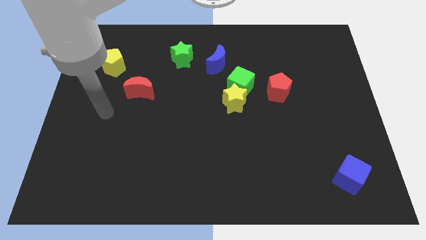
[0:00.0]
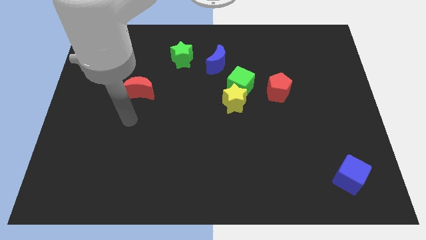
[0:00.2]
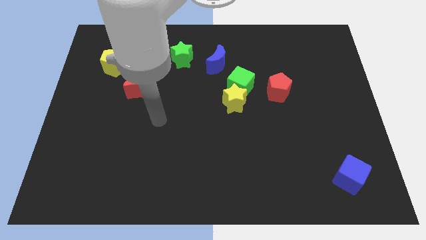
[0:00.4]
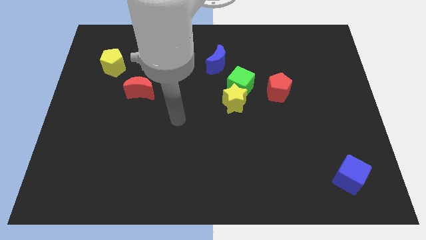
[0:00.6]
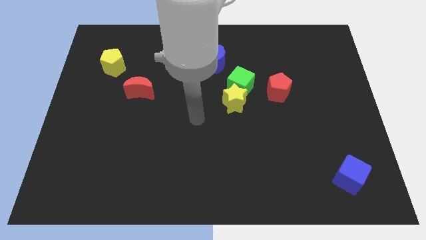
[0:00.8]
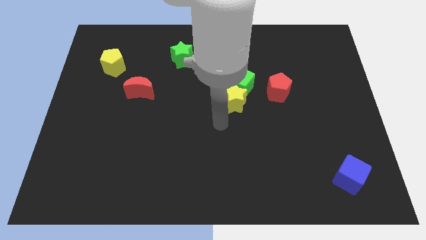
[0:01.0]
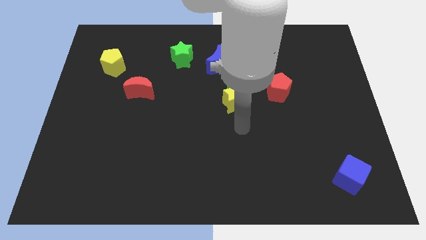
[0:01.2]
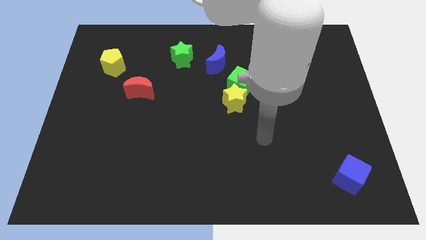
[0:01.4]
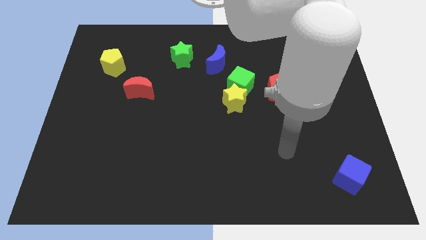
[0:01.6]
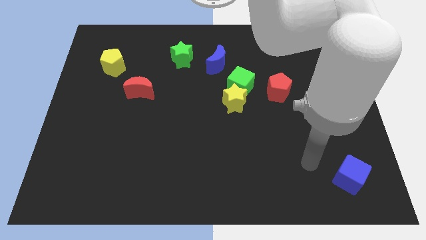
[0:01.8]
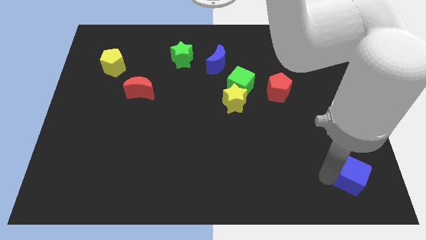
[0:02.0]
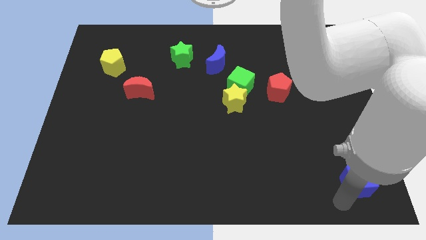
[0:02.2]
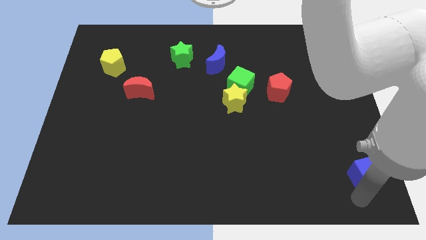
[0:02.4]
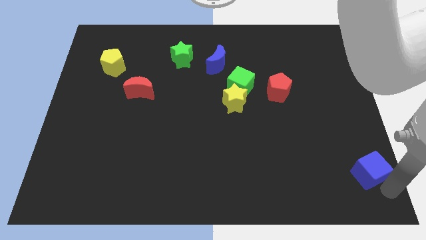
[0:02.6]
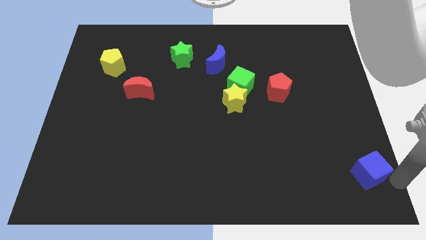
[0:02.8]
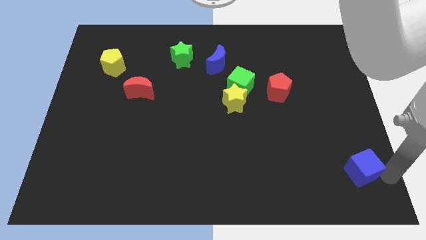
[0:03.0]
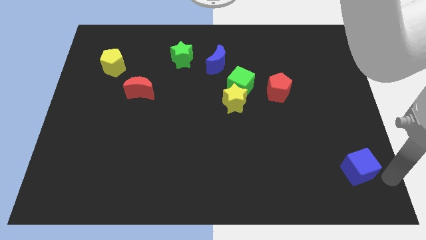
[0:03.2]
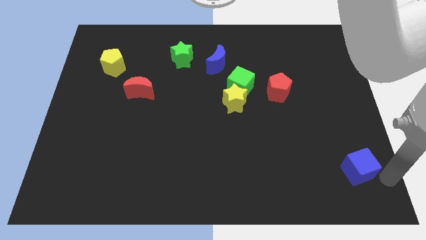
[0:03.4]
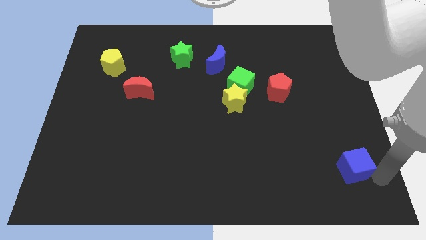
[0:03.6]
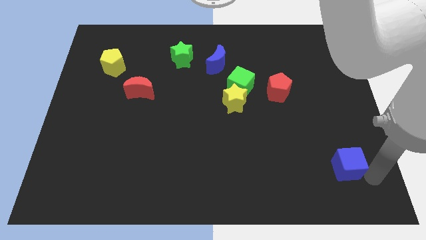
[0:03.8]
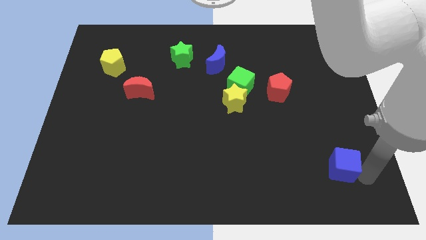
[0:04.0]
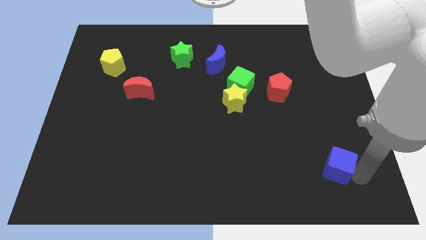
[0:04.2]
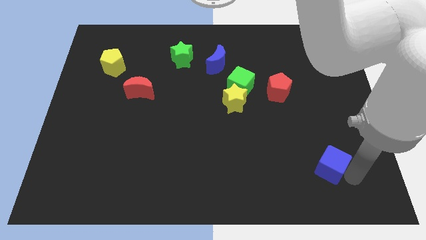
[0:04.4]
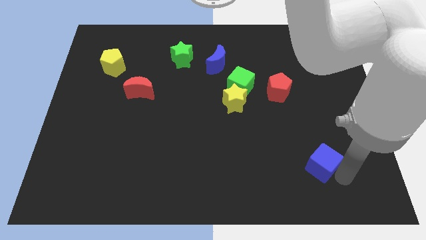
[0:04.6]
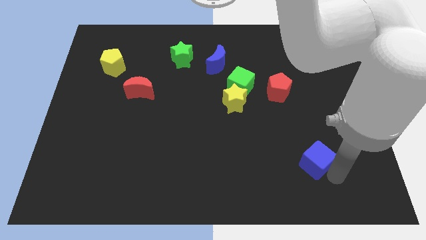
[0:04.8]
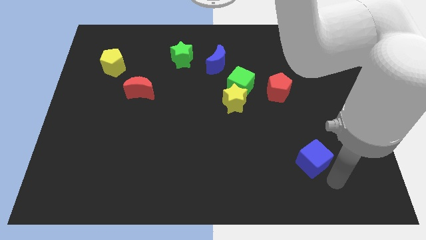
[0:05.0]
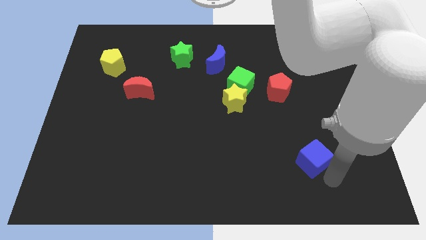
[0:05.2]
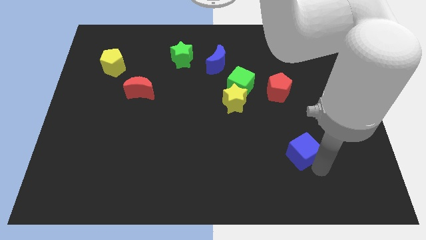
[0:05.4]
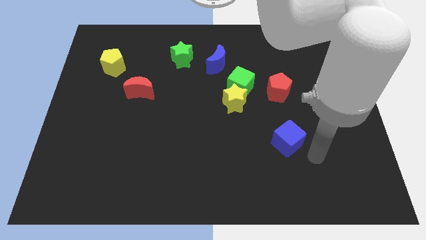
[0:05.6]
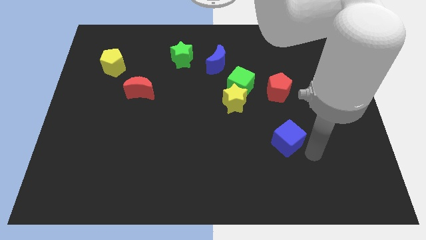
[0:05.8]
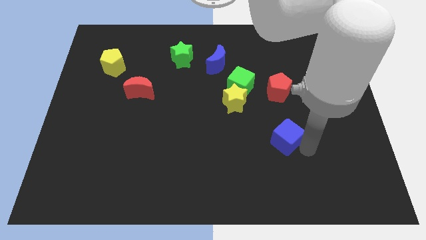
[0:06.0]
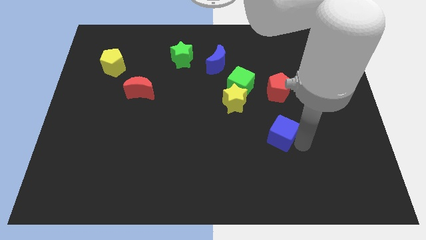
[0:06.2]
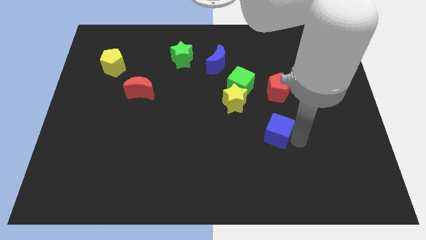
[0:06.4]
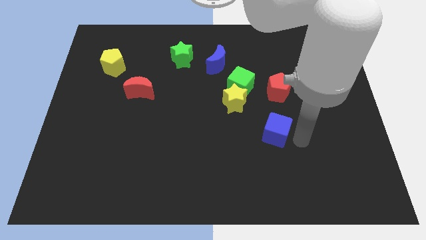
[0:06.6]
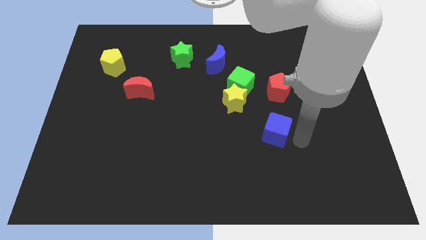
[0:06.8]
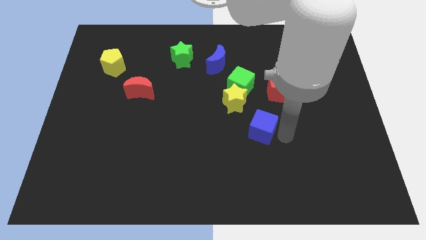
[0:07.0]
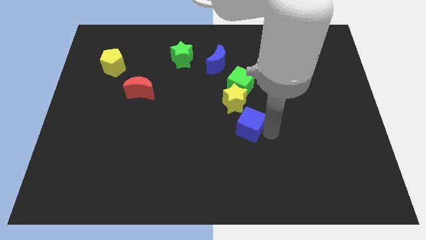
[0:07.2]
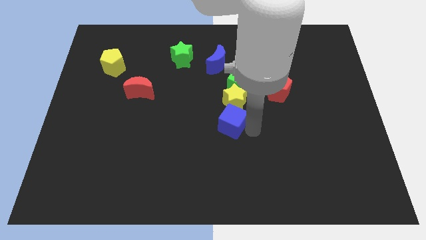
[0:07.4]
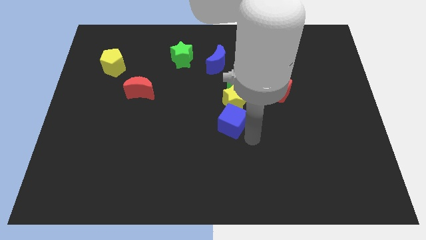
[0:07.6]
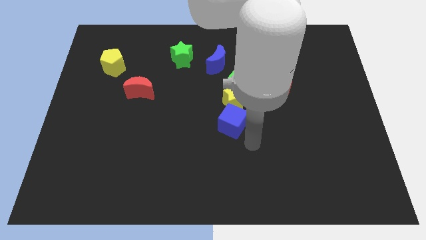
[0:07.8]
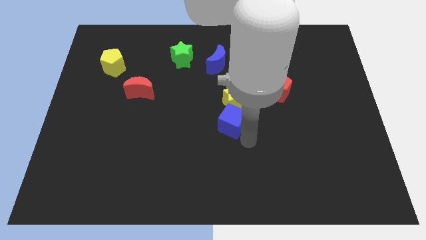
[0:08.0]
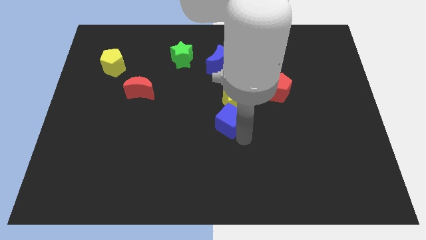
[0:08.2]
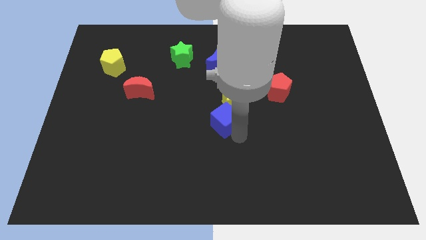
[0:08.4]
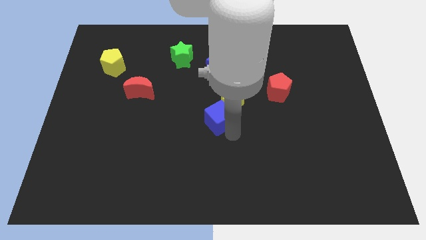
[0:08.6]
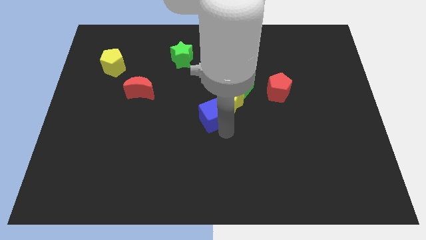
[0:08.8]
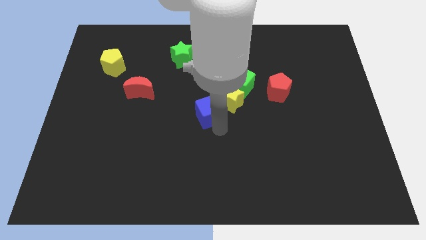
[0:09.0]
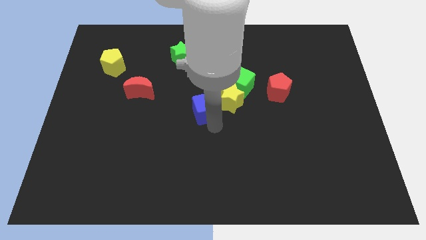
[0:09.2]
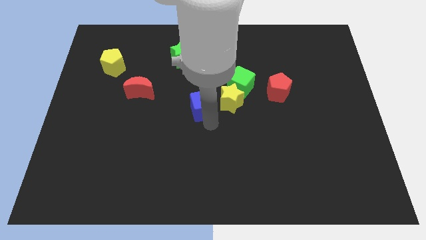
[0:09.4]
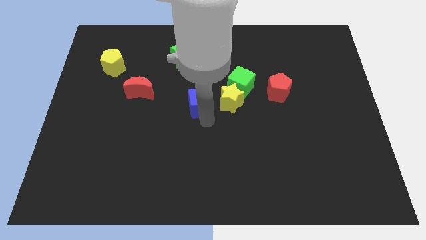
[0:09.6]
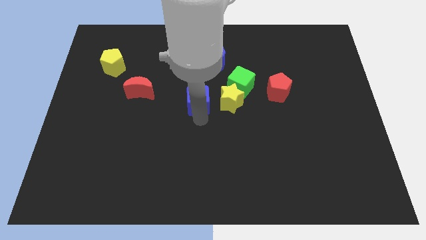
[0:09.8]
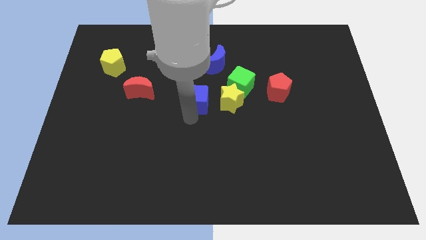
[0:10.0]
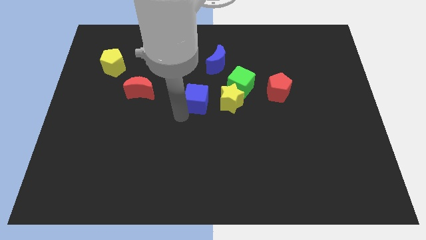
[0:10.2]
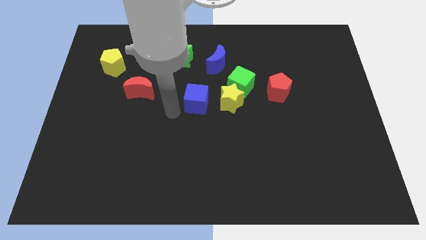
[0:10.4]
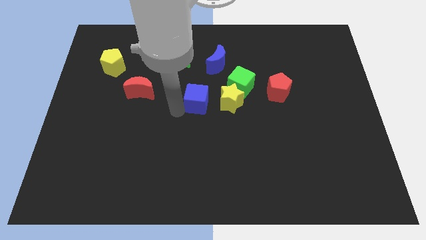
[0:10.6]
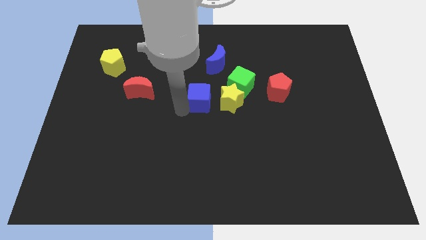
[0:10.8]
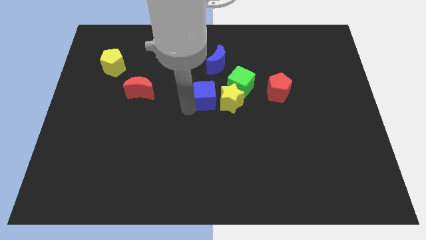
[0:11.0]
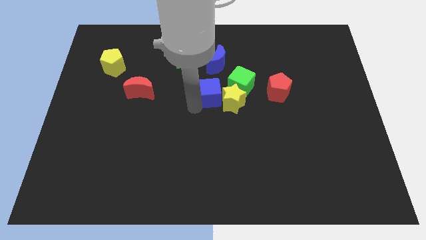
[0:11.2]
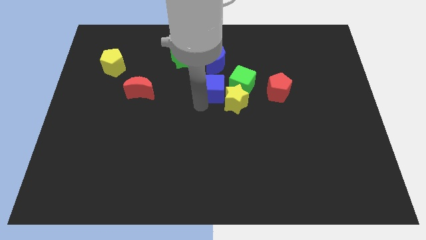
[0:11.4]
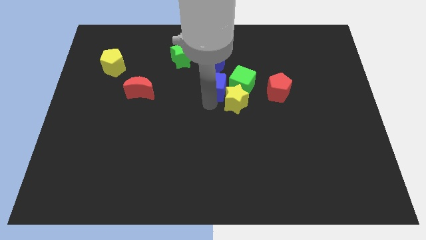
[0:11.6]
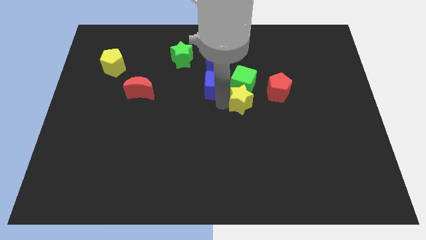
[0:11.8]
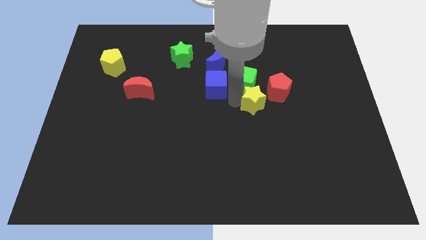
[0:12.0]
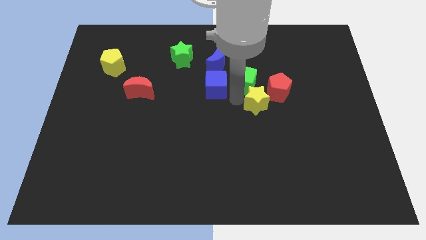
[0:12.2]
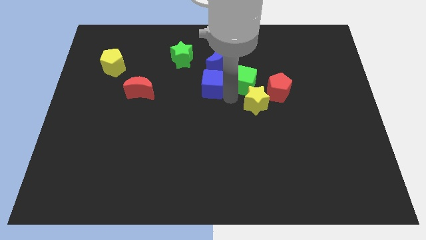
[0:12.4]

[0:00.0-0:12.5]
slide the blue cube to the bottom left side of the blue moon

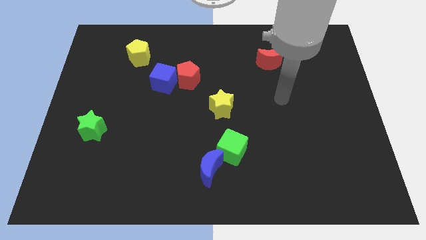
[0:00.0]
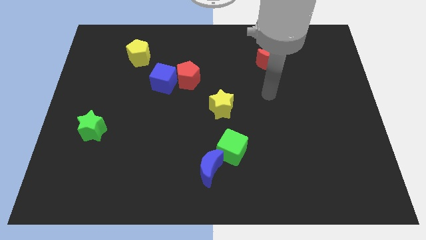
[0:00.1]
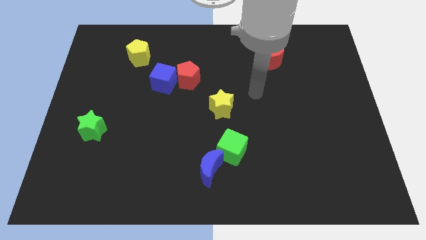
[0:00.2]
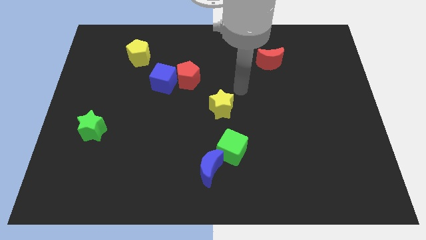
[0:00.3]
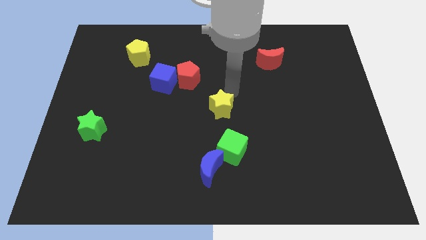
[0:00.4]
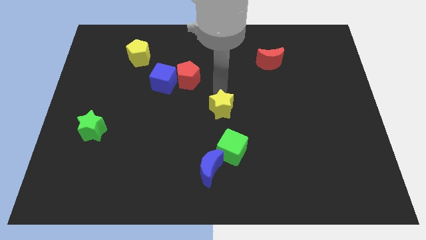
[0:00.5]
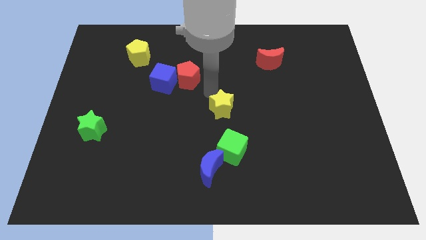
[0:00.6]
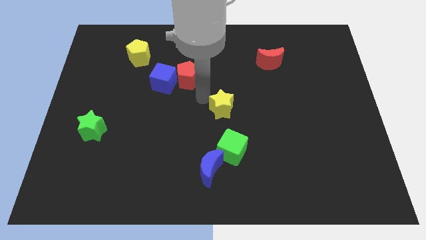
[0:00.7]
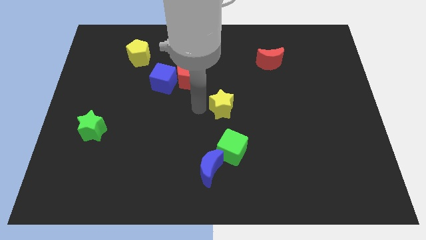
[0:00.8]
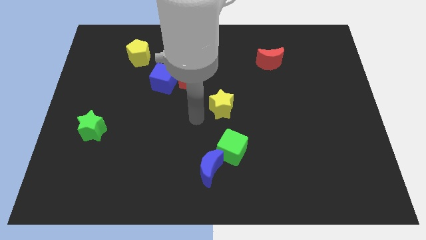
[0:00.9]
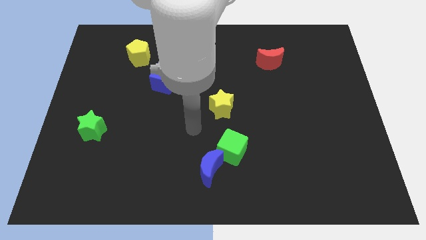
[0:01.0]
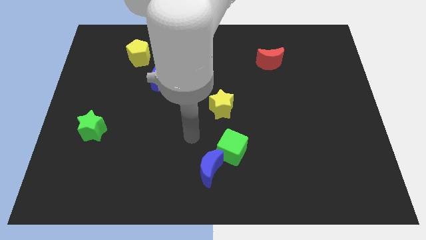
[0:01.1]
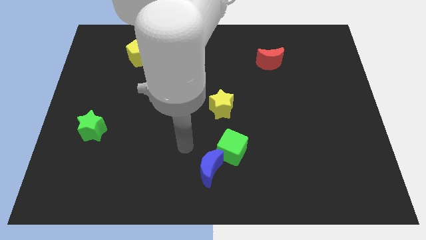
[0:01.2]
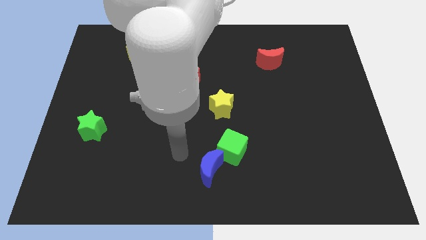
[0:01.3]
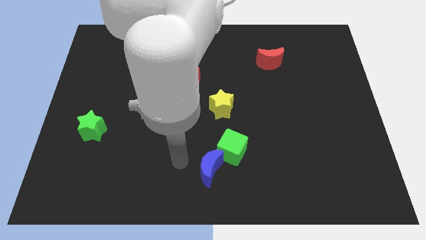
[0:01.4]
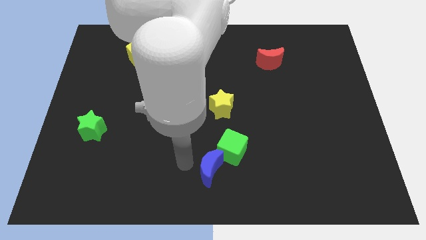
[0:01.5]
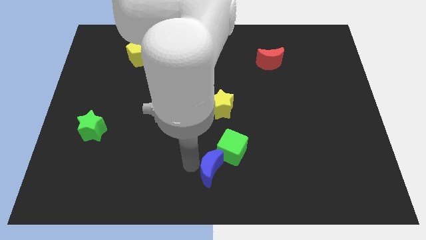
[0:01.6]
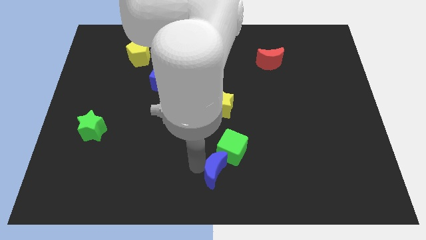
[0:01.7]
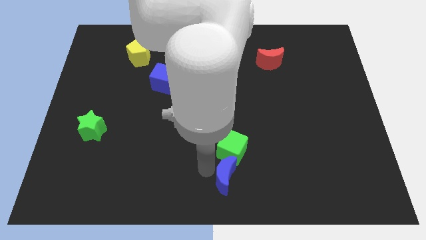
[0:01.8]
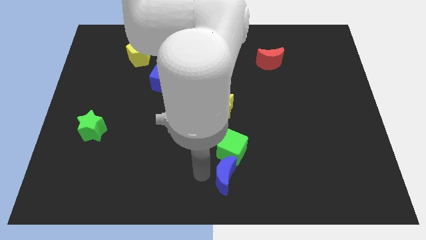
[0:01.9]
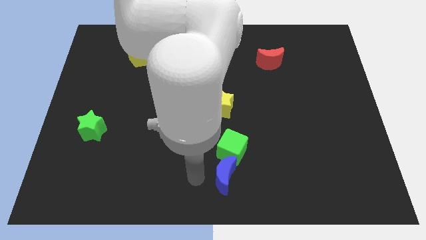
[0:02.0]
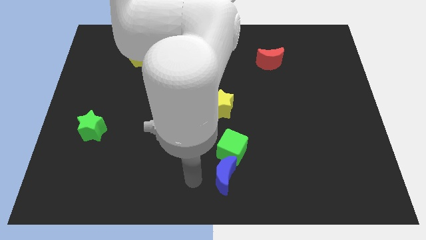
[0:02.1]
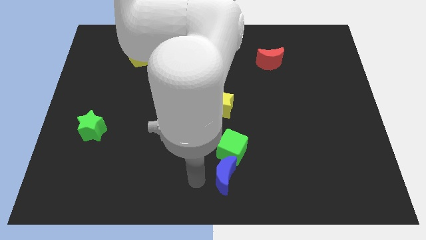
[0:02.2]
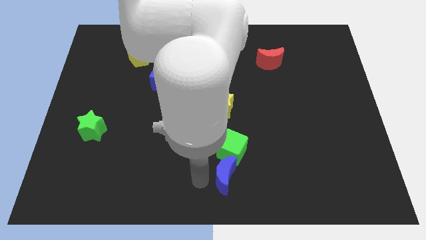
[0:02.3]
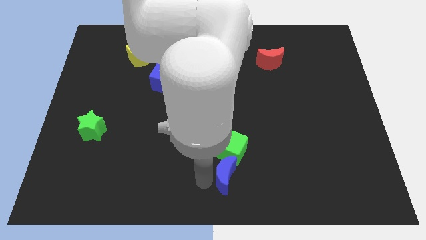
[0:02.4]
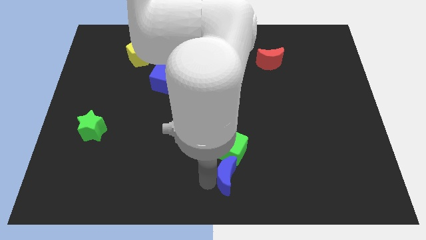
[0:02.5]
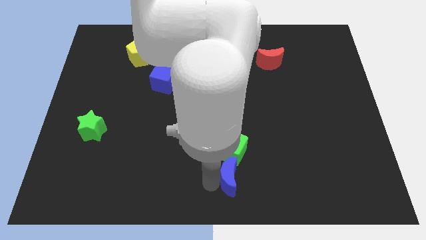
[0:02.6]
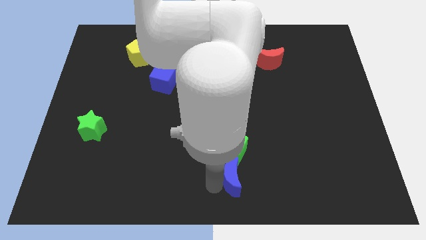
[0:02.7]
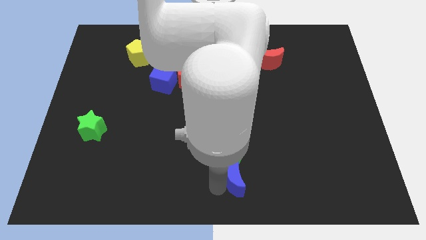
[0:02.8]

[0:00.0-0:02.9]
put the blue moon to the bottom right of the green cube
